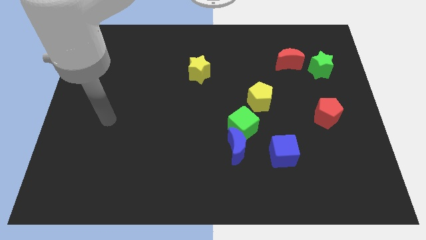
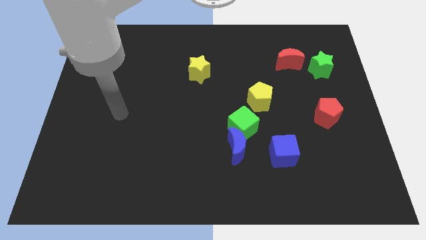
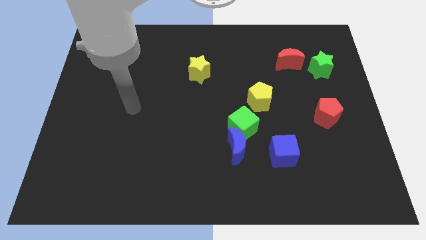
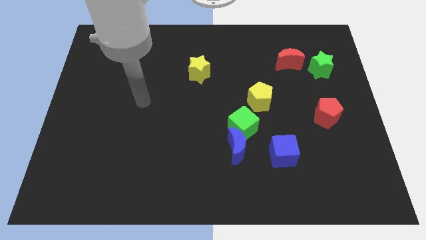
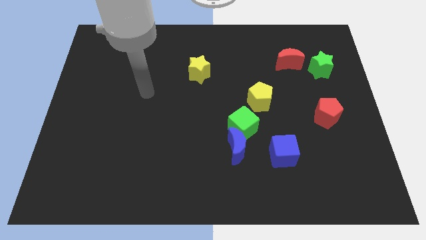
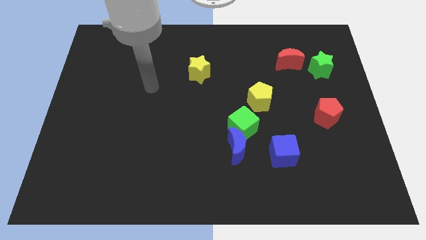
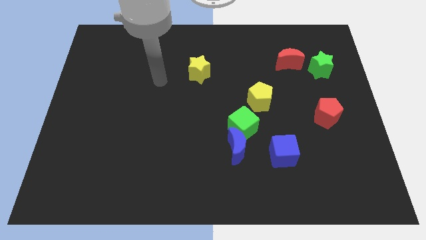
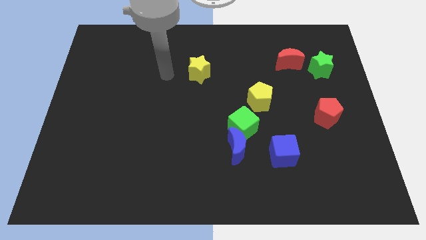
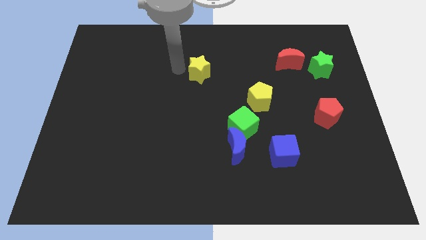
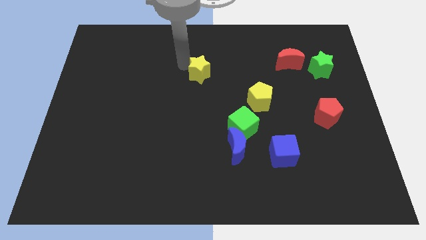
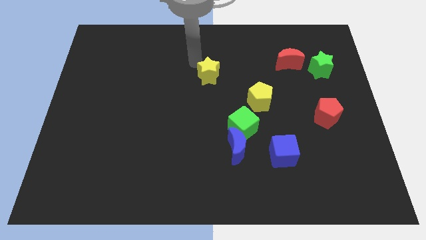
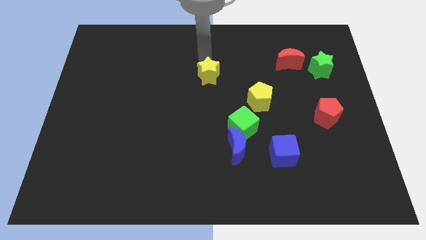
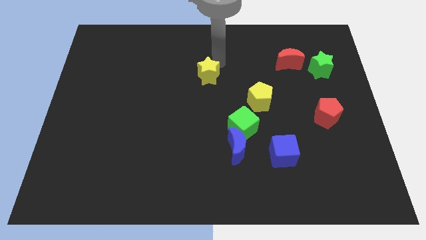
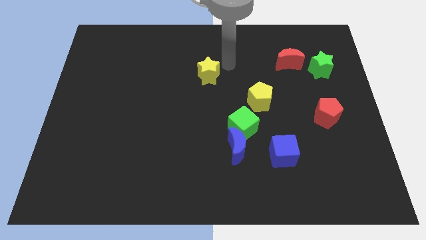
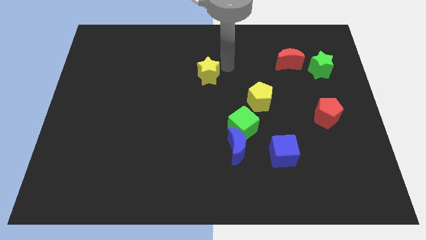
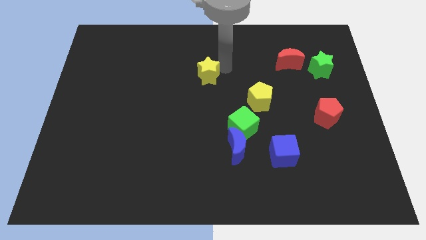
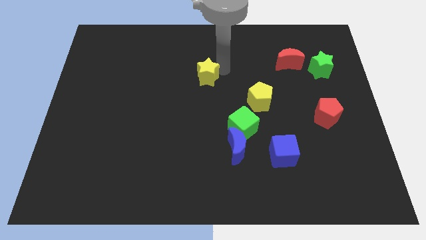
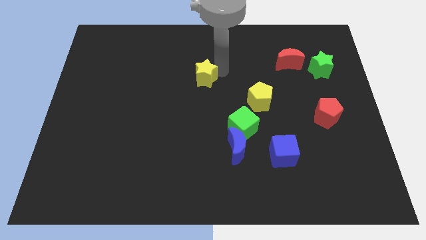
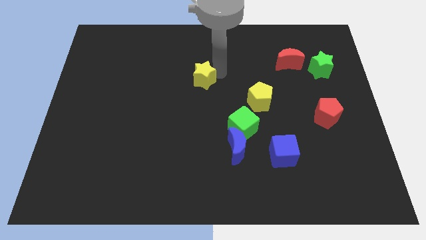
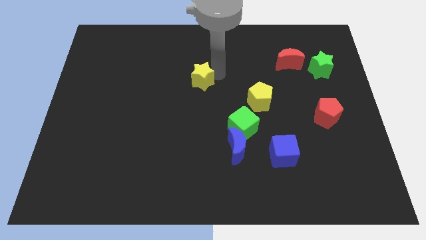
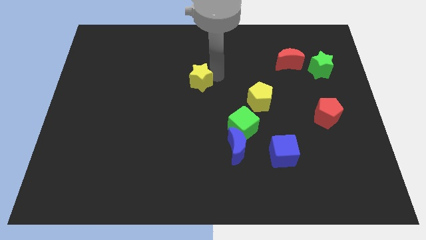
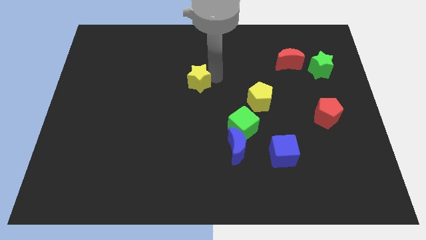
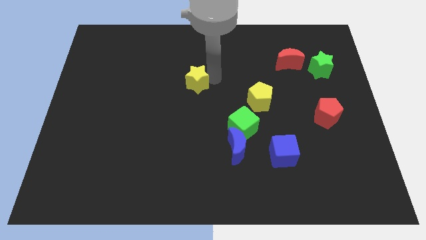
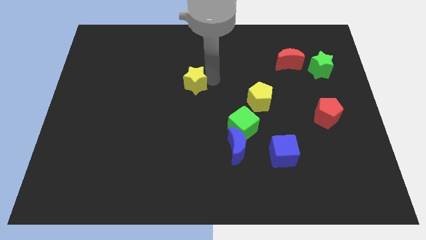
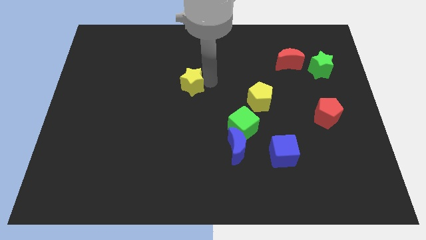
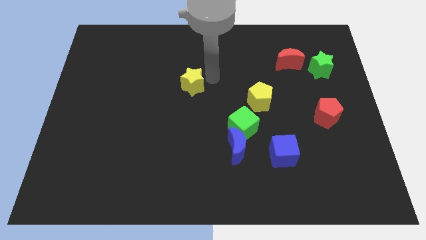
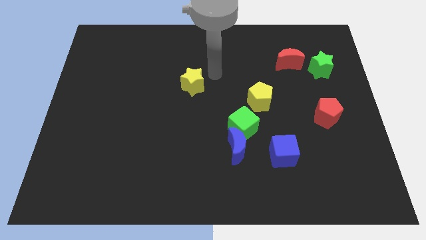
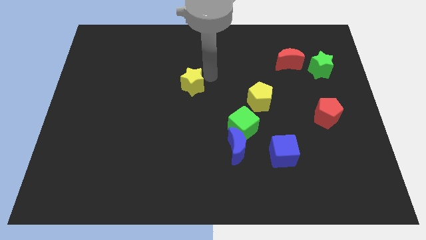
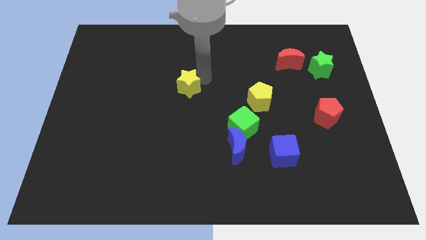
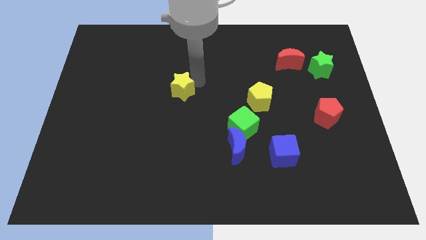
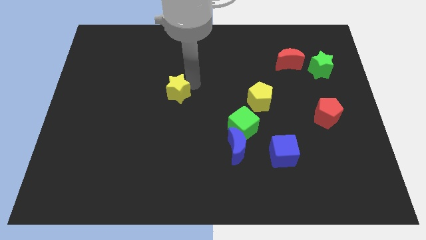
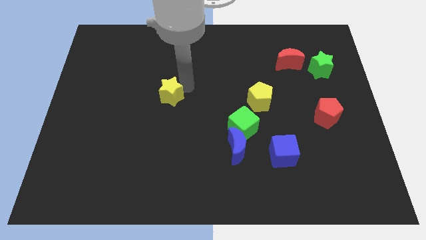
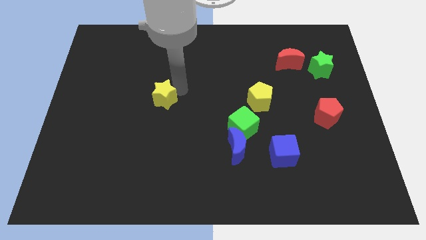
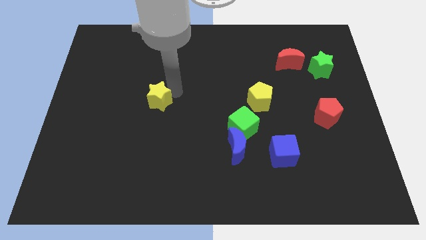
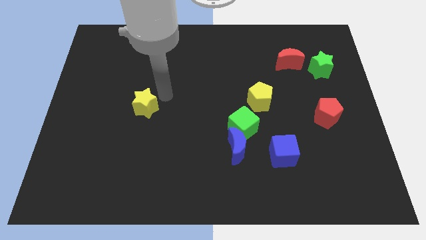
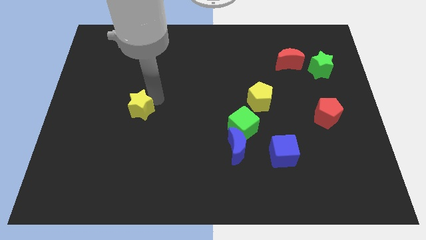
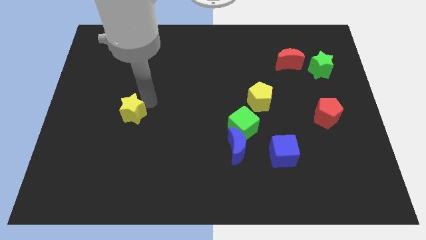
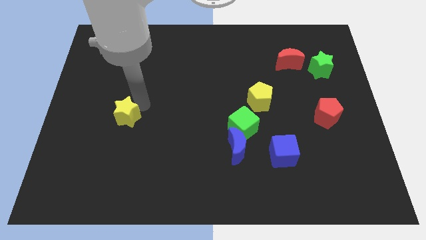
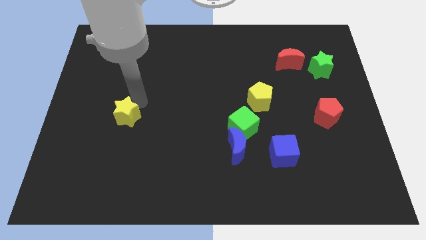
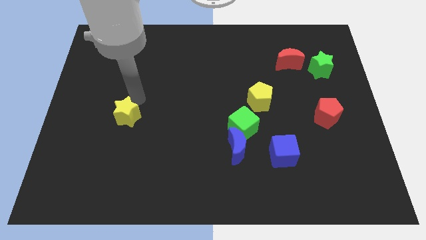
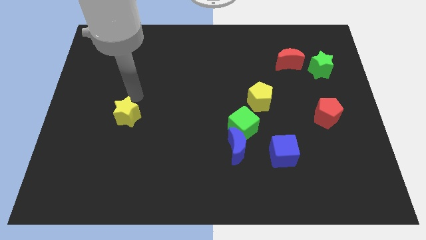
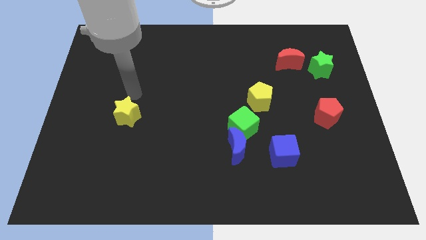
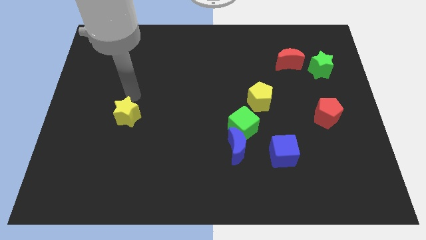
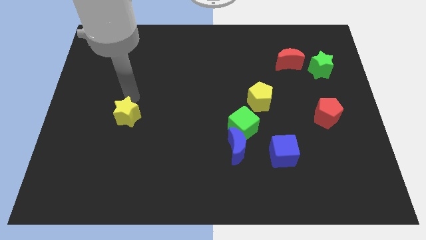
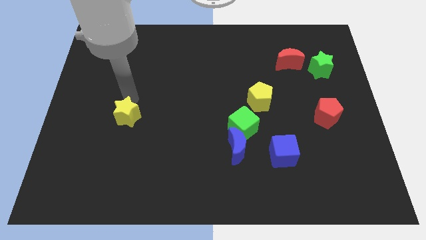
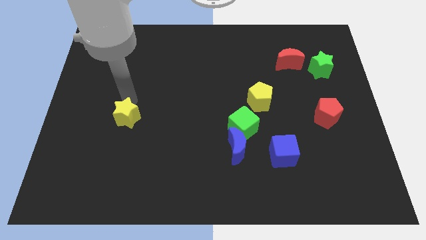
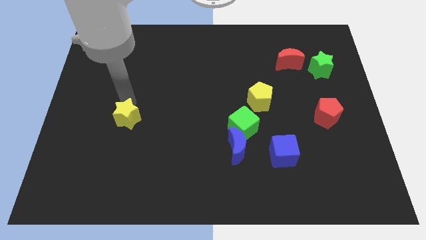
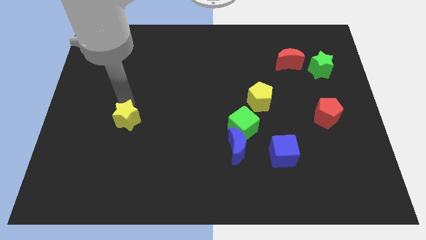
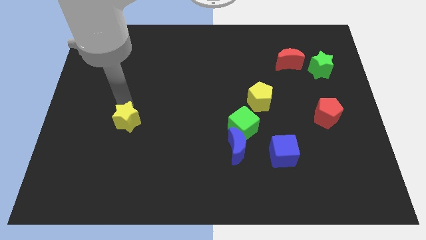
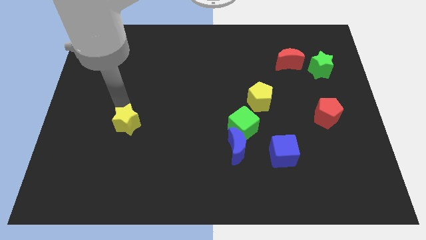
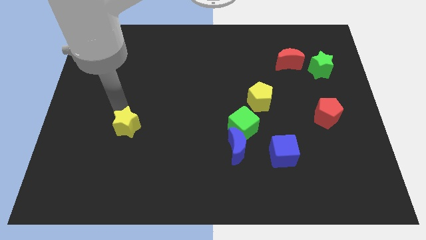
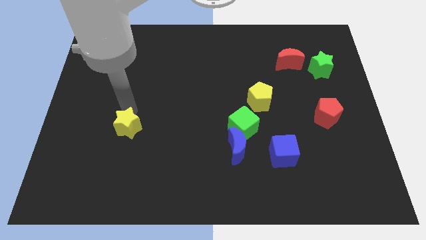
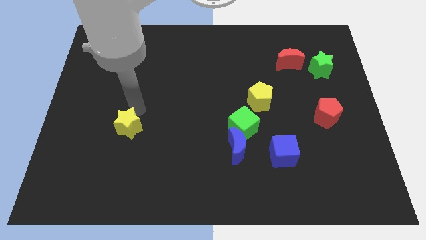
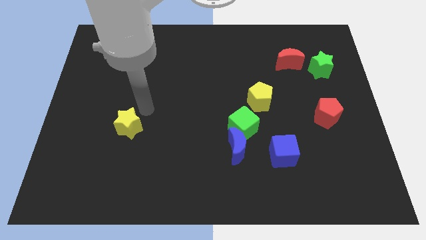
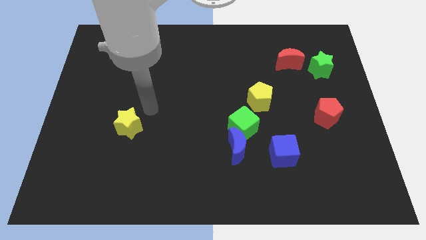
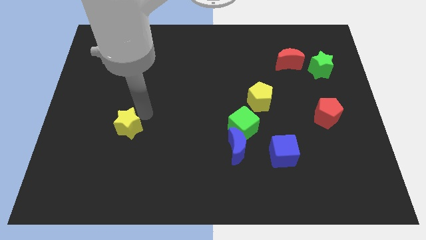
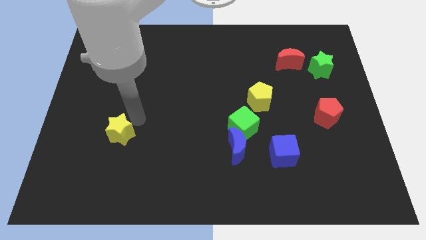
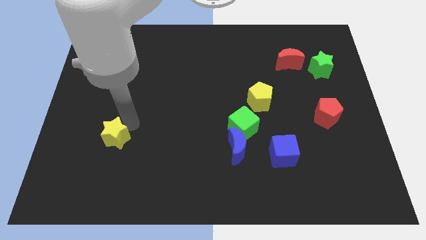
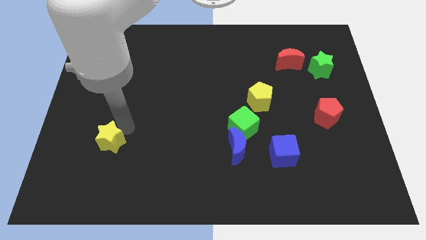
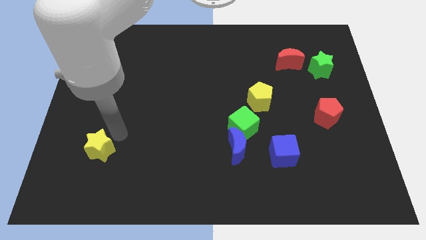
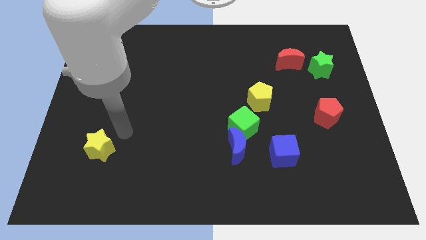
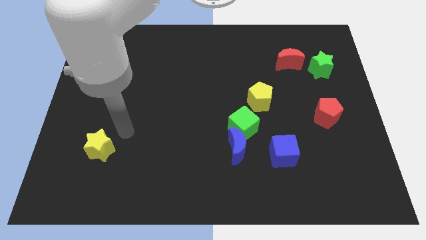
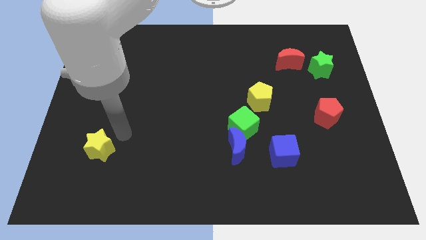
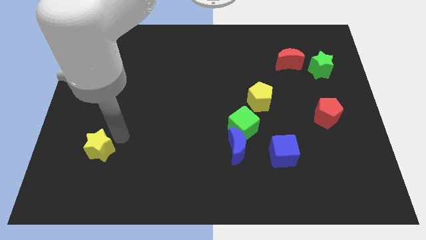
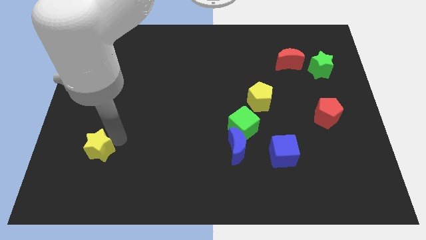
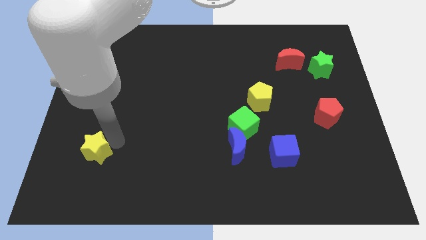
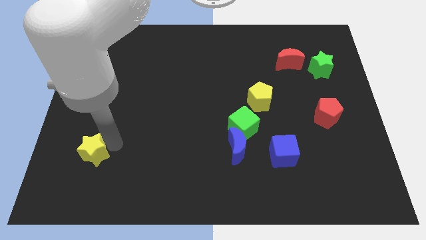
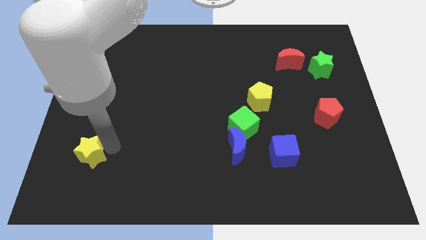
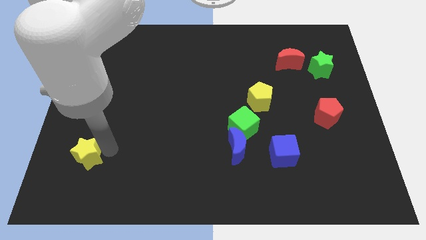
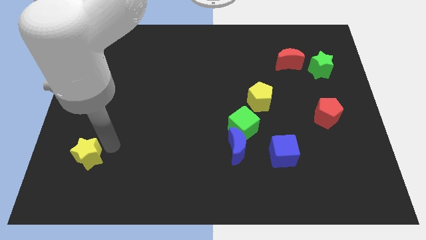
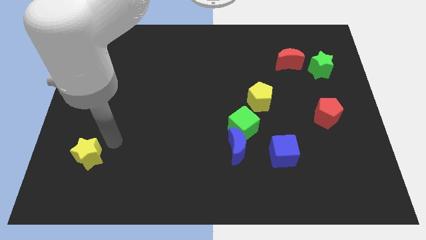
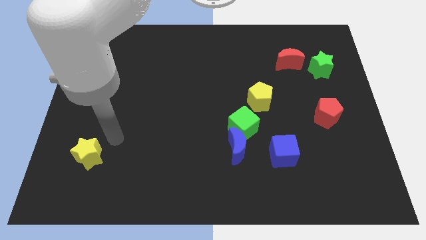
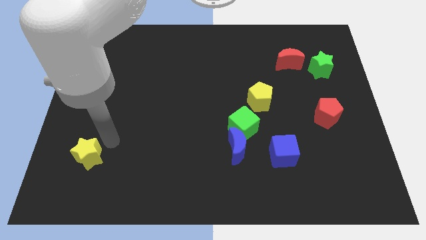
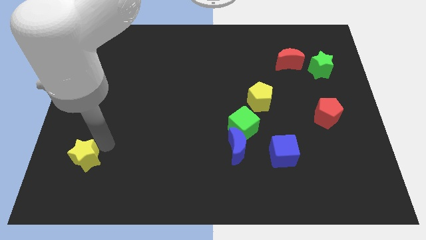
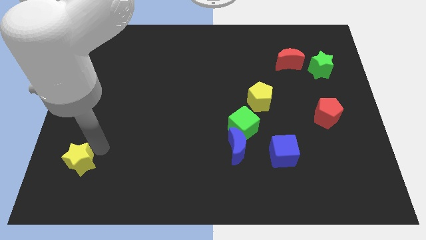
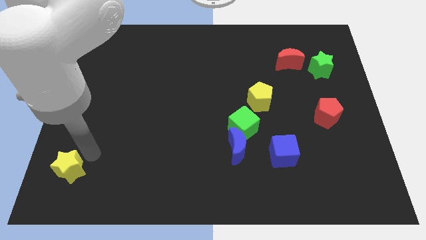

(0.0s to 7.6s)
move the yellow star to the lower left corner
